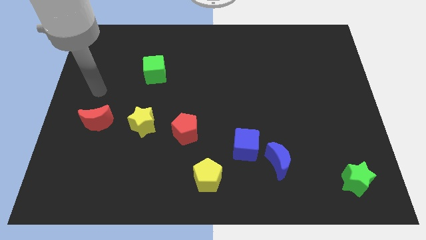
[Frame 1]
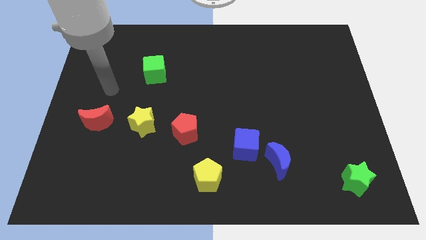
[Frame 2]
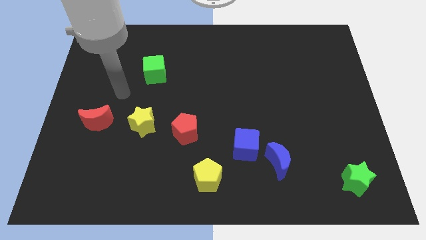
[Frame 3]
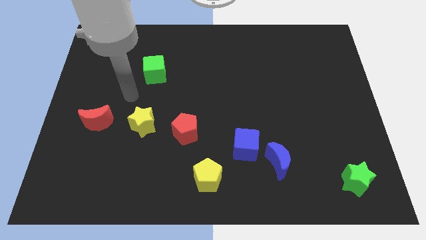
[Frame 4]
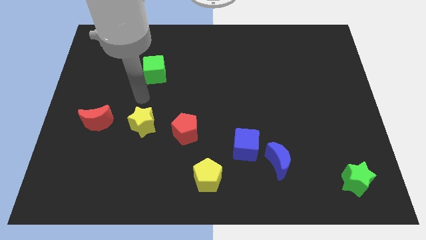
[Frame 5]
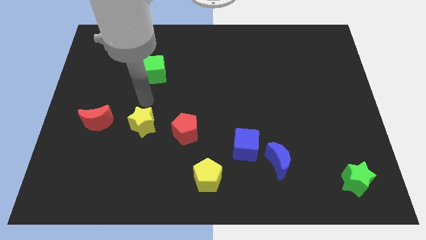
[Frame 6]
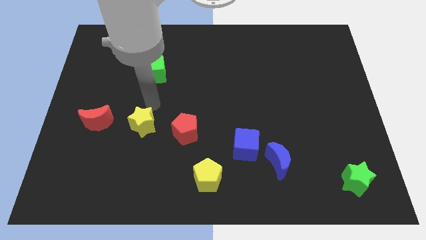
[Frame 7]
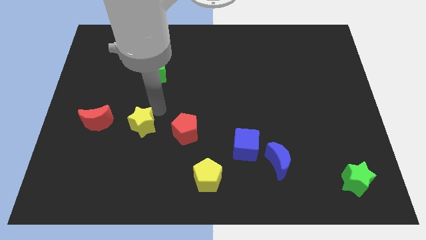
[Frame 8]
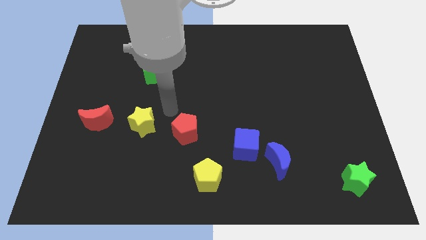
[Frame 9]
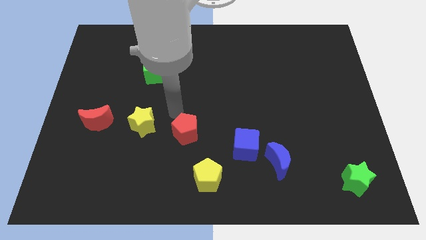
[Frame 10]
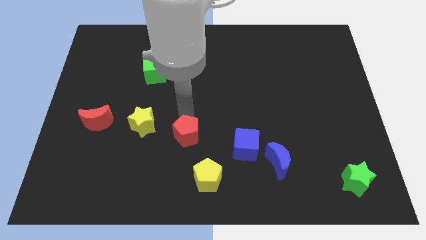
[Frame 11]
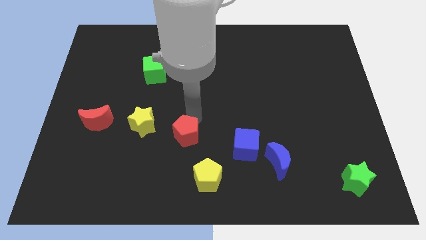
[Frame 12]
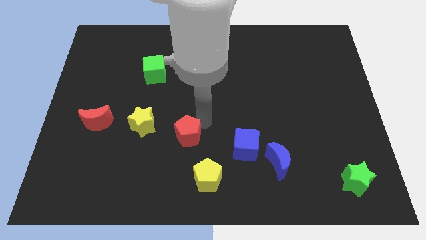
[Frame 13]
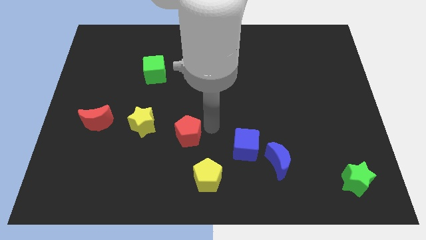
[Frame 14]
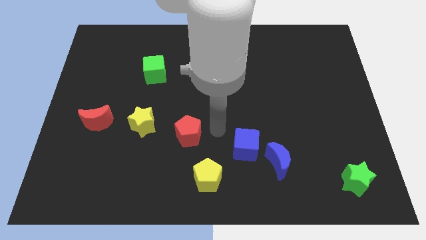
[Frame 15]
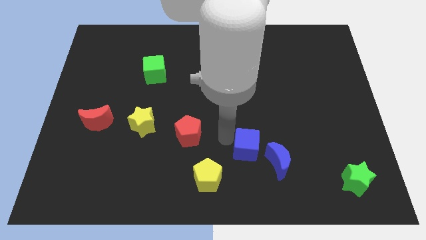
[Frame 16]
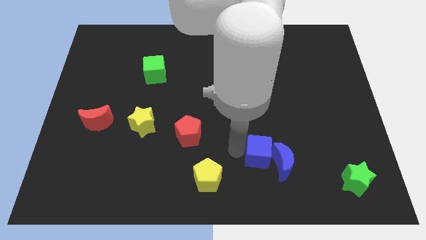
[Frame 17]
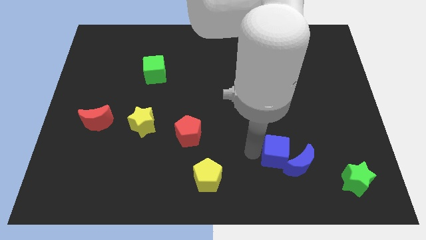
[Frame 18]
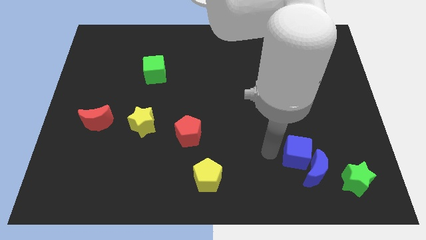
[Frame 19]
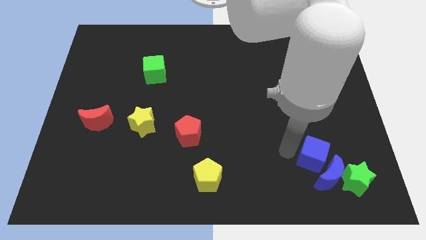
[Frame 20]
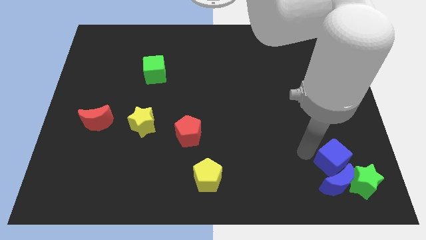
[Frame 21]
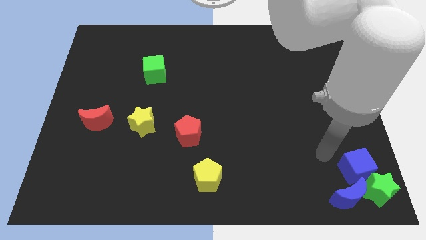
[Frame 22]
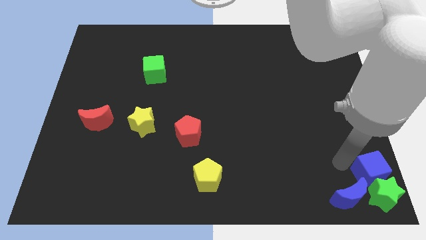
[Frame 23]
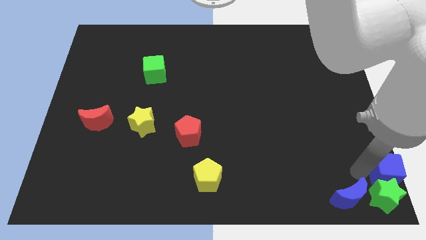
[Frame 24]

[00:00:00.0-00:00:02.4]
move the blue moon away from the blue cube

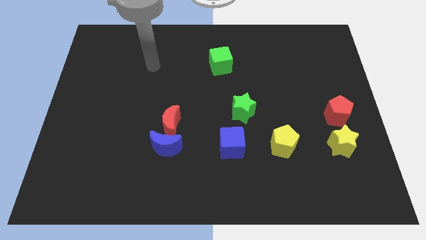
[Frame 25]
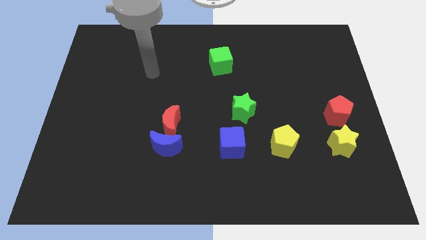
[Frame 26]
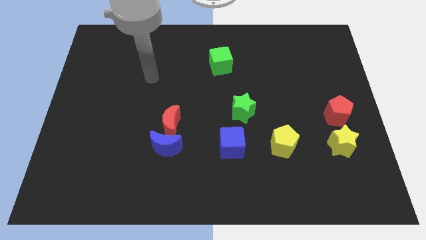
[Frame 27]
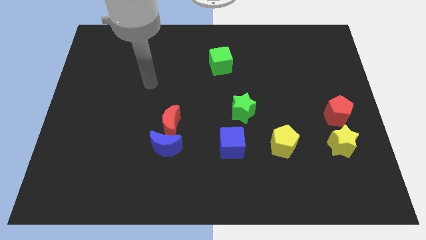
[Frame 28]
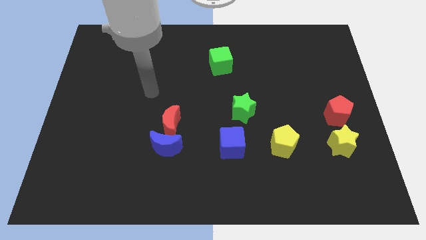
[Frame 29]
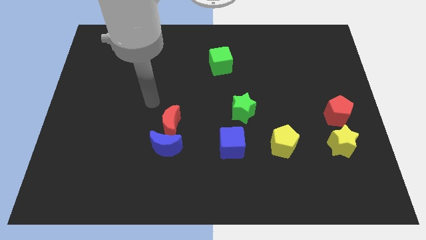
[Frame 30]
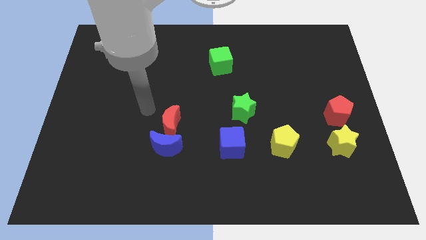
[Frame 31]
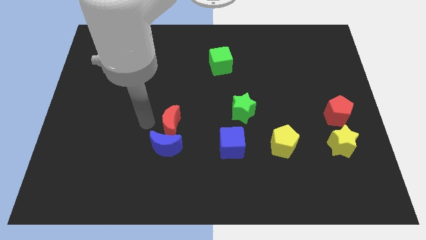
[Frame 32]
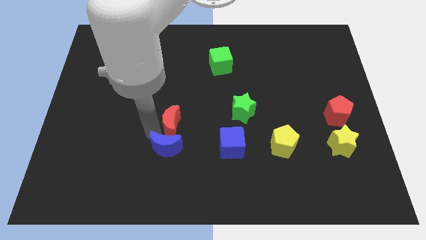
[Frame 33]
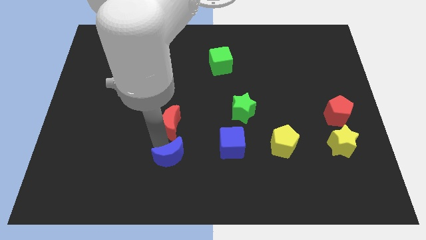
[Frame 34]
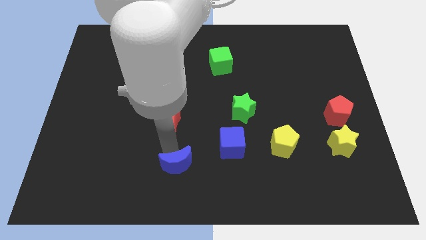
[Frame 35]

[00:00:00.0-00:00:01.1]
move the red moon away from the blue moon

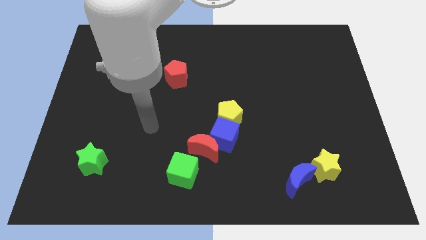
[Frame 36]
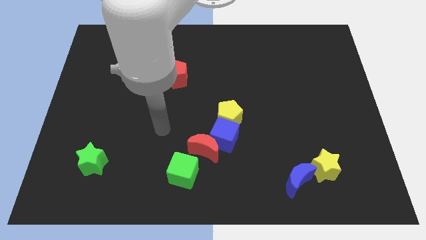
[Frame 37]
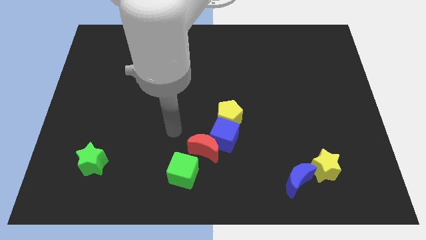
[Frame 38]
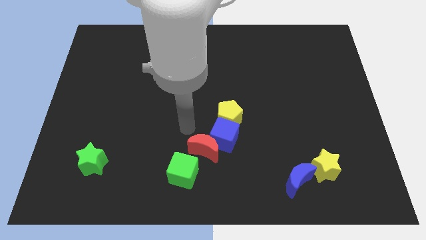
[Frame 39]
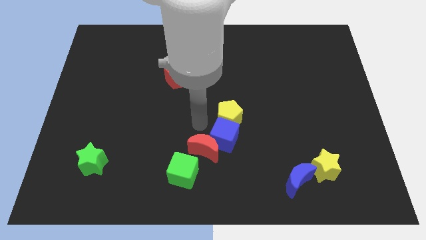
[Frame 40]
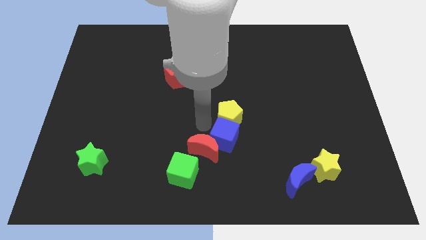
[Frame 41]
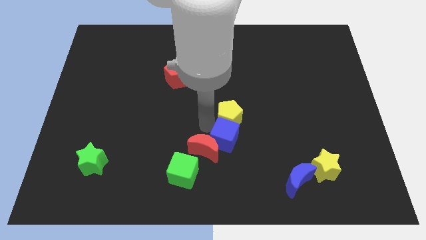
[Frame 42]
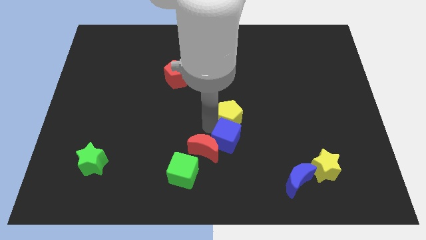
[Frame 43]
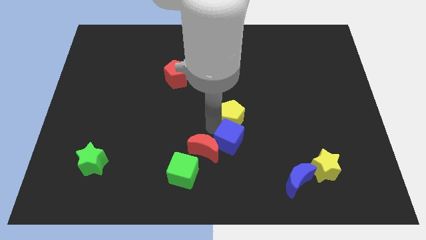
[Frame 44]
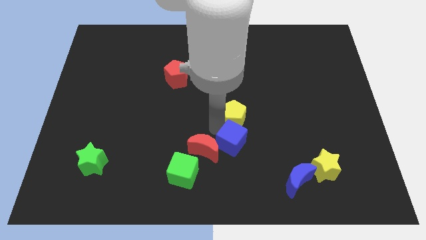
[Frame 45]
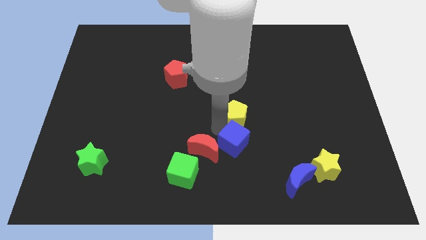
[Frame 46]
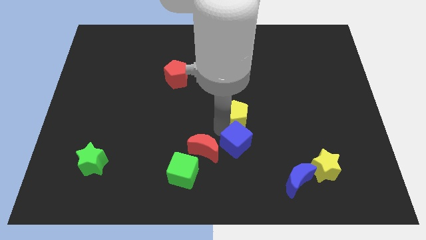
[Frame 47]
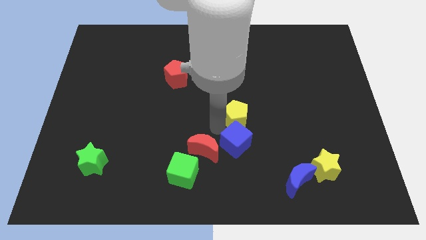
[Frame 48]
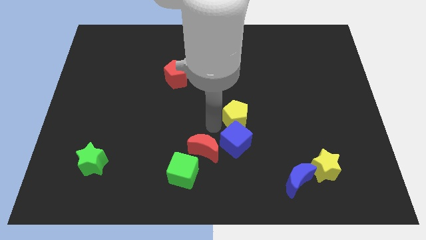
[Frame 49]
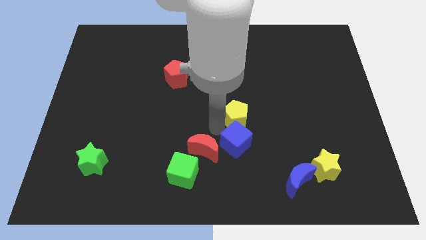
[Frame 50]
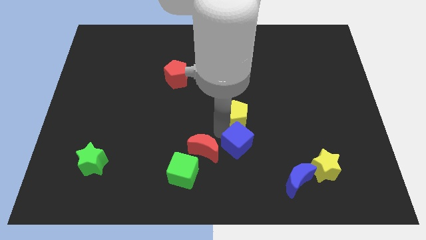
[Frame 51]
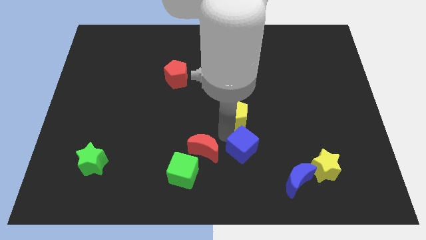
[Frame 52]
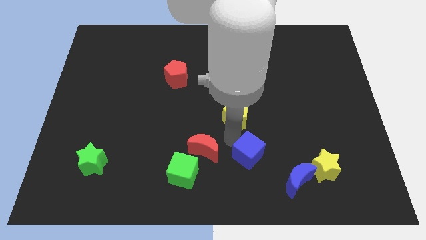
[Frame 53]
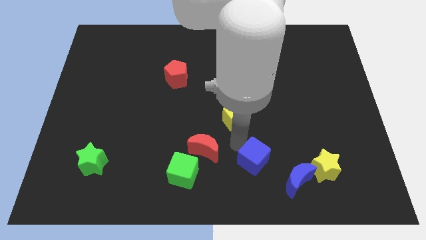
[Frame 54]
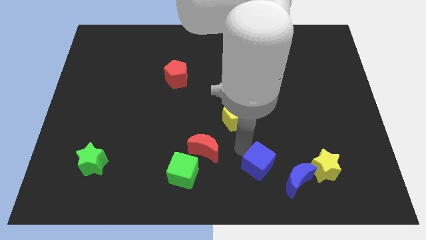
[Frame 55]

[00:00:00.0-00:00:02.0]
move the blue cube away from the red moon and yellow pentagon

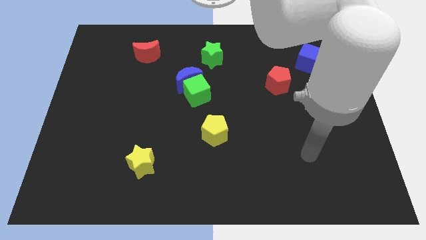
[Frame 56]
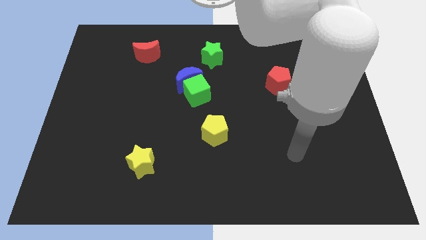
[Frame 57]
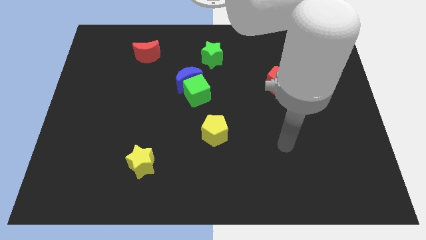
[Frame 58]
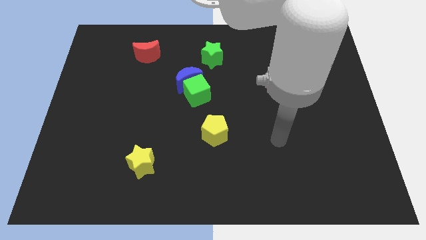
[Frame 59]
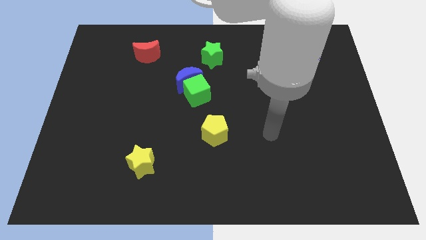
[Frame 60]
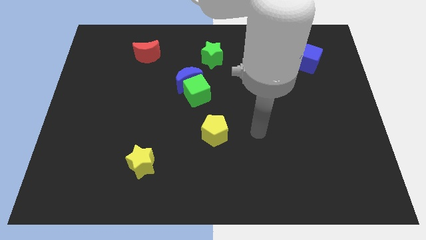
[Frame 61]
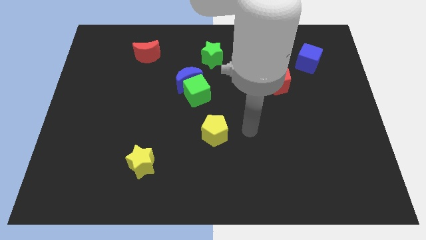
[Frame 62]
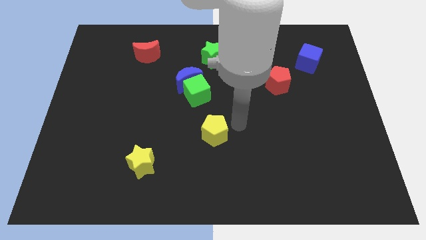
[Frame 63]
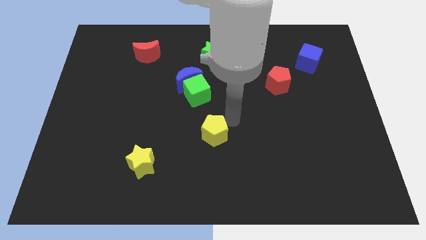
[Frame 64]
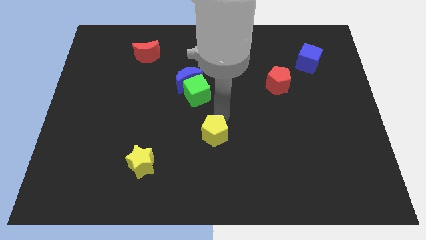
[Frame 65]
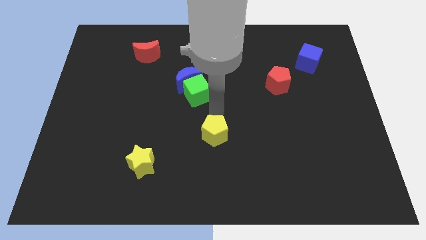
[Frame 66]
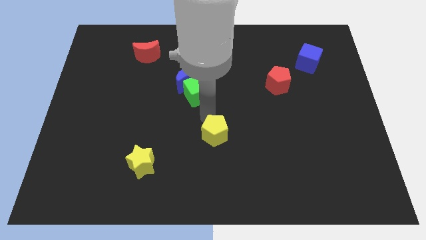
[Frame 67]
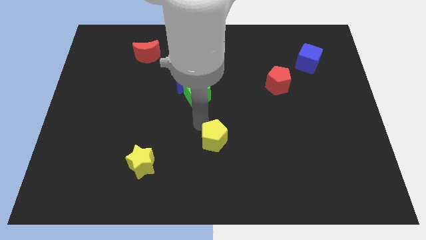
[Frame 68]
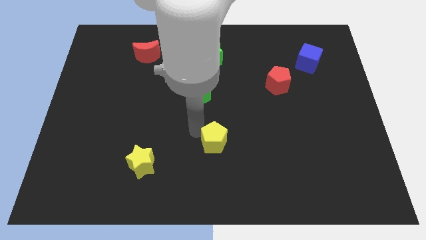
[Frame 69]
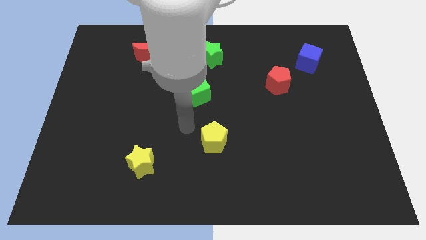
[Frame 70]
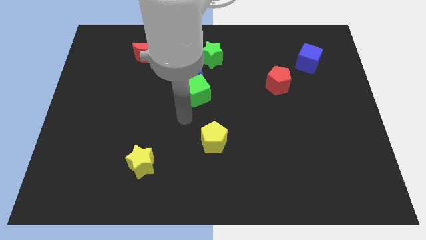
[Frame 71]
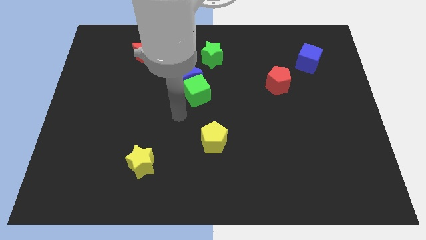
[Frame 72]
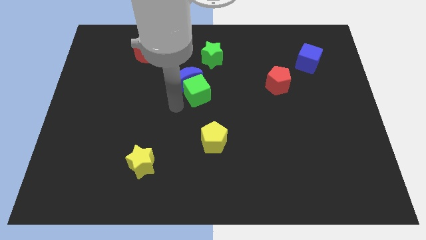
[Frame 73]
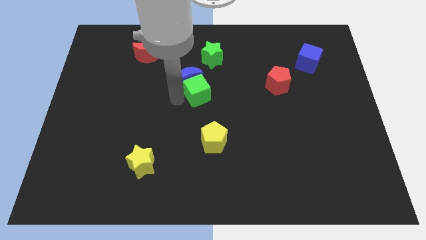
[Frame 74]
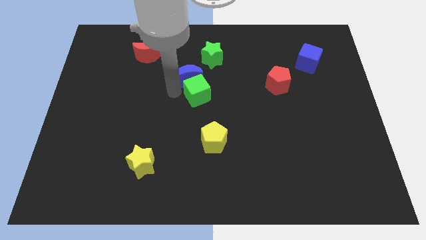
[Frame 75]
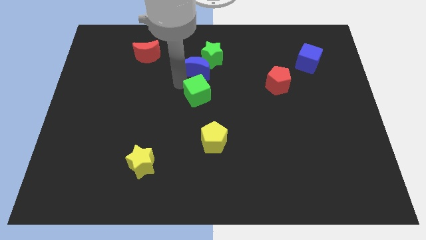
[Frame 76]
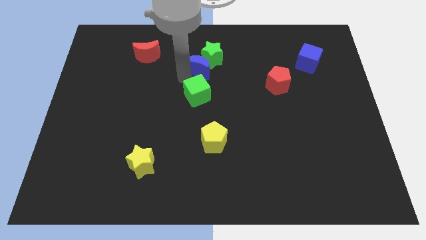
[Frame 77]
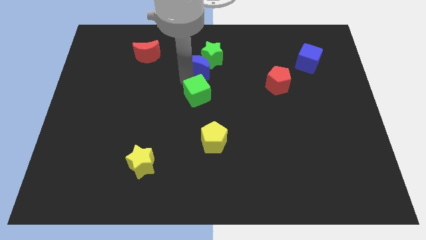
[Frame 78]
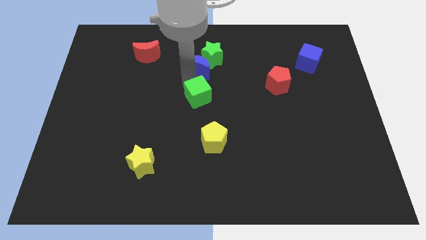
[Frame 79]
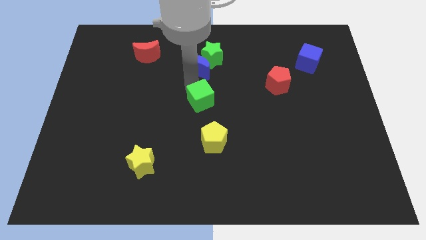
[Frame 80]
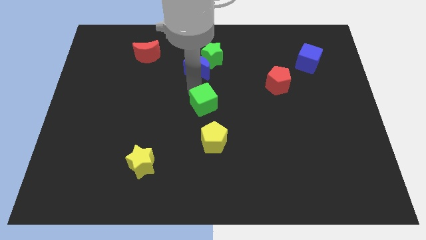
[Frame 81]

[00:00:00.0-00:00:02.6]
separate the green cube from the blue moon

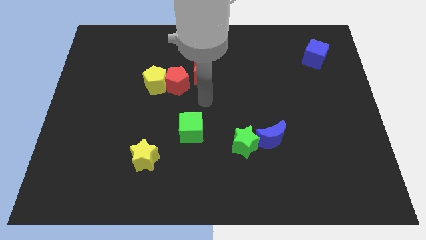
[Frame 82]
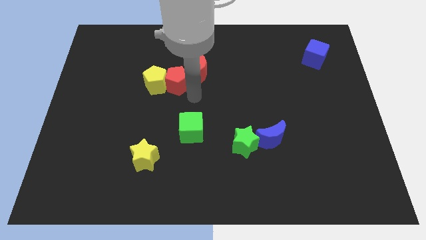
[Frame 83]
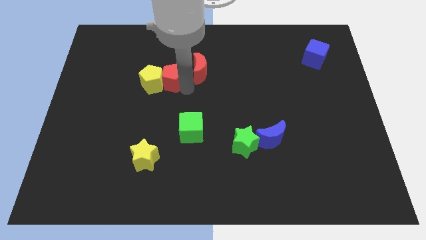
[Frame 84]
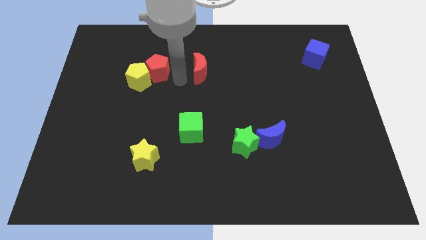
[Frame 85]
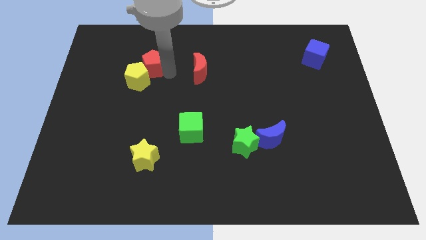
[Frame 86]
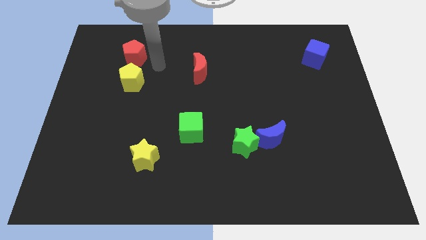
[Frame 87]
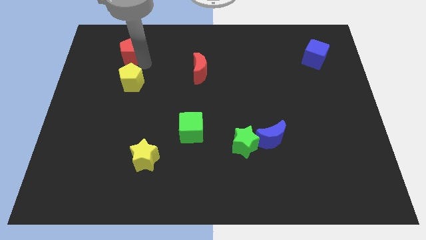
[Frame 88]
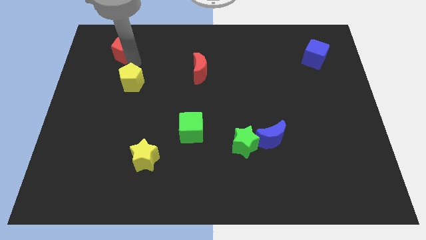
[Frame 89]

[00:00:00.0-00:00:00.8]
pull the yellow pentagon apart from the red pentagon

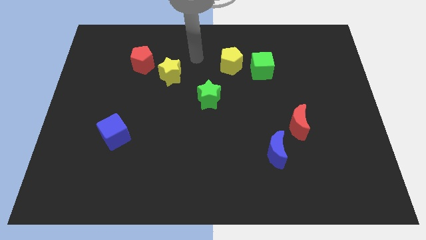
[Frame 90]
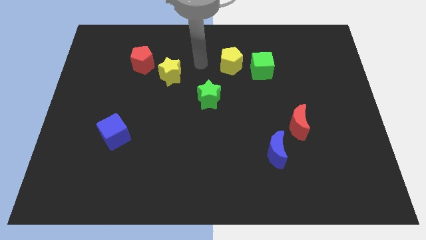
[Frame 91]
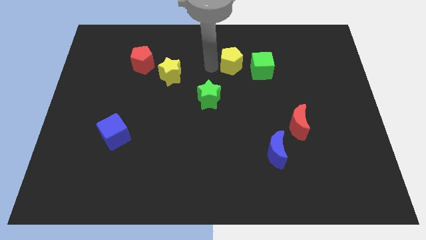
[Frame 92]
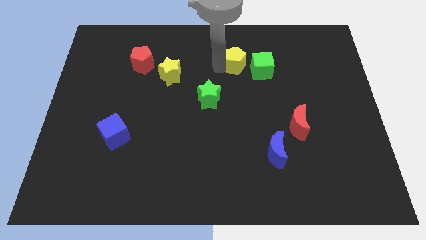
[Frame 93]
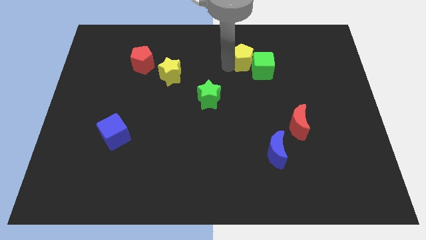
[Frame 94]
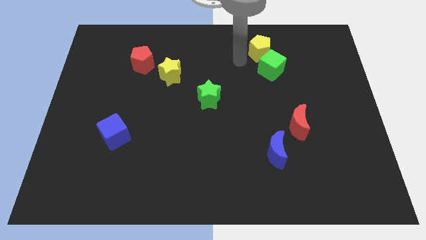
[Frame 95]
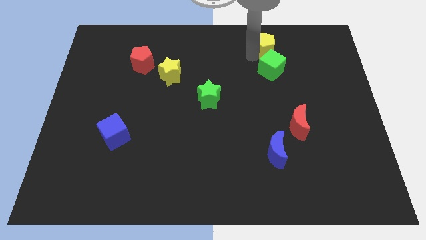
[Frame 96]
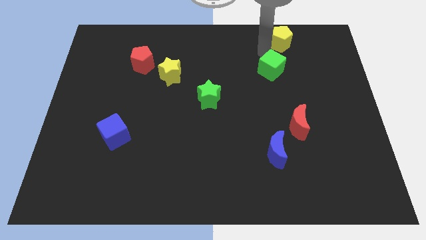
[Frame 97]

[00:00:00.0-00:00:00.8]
move the green cube away from the yellow pentagon
